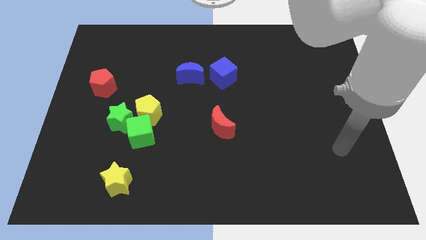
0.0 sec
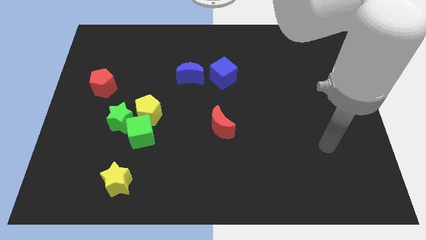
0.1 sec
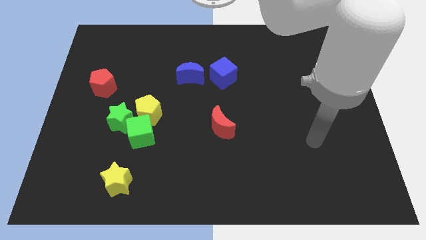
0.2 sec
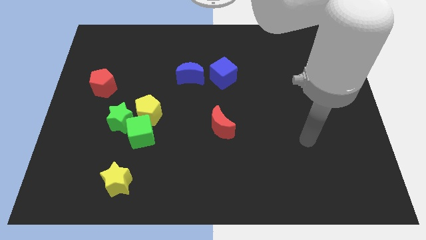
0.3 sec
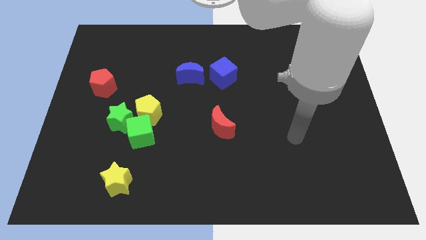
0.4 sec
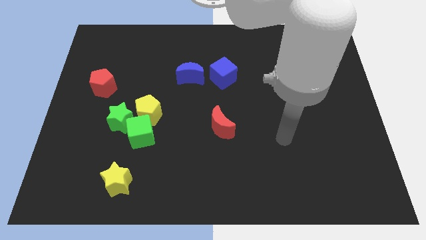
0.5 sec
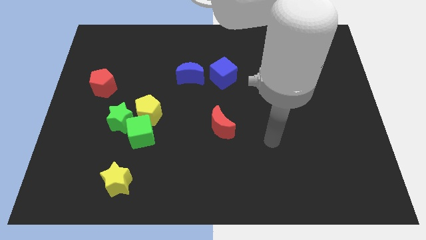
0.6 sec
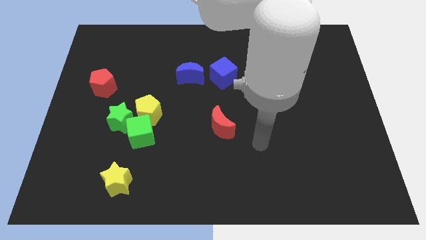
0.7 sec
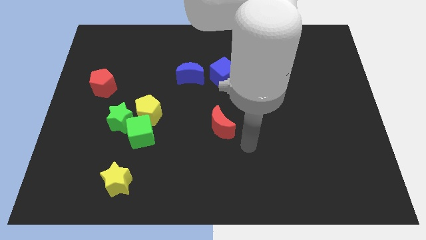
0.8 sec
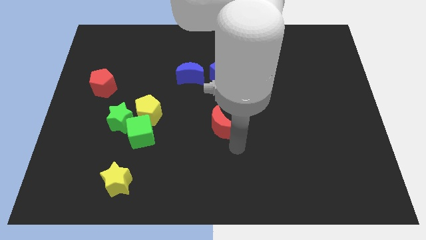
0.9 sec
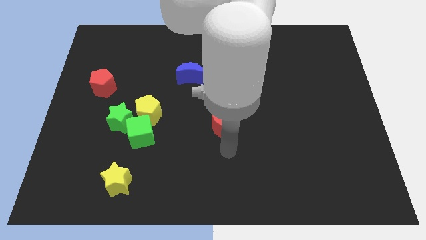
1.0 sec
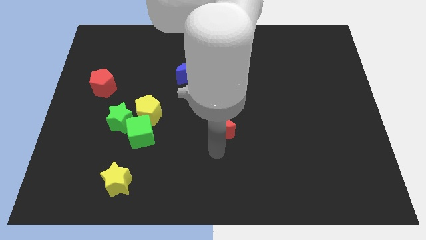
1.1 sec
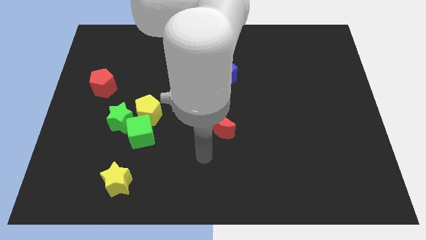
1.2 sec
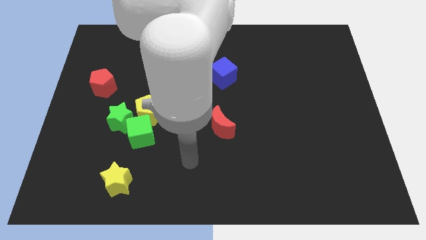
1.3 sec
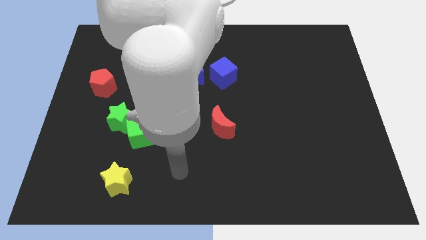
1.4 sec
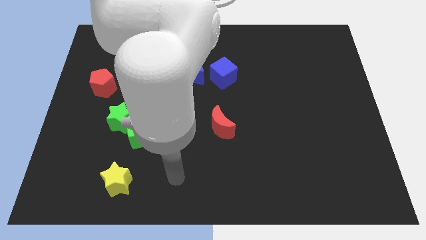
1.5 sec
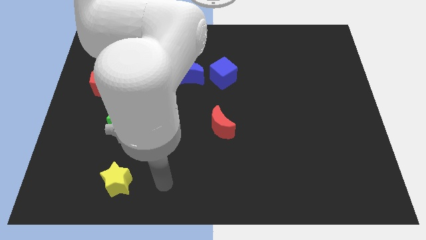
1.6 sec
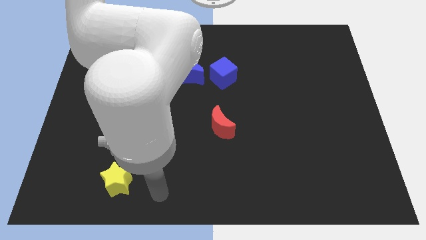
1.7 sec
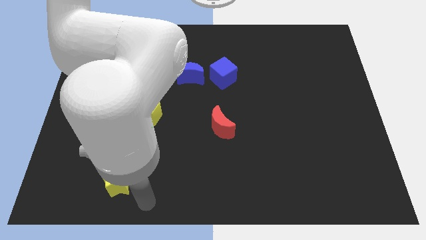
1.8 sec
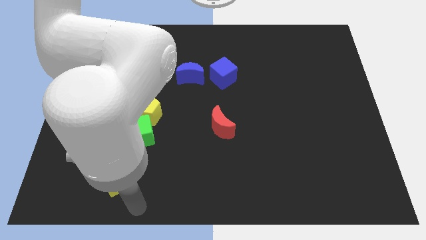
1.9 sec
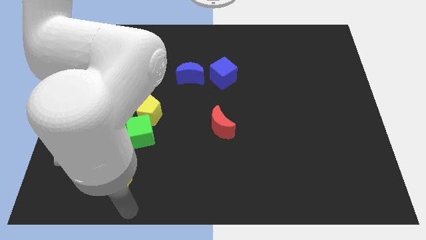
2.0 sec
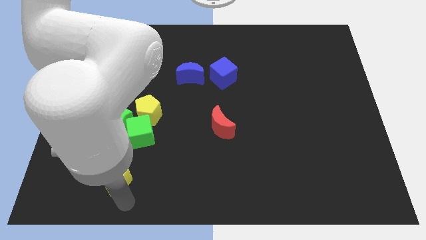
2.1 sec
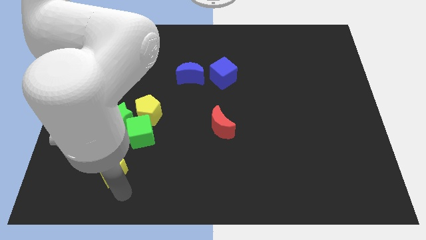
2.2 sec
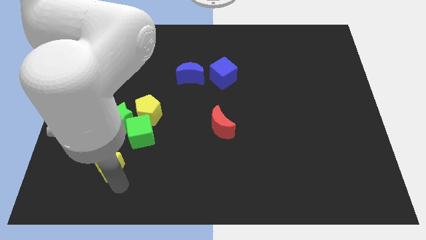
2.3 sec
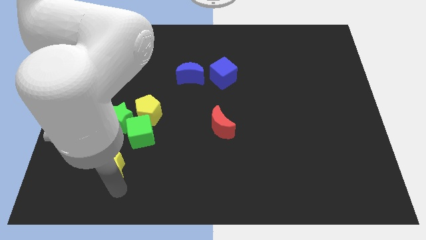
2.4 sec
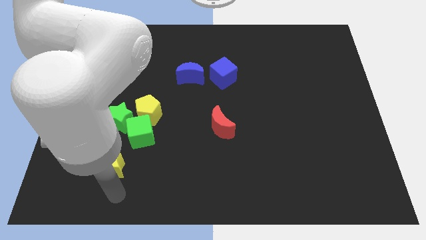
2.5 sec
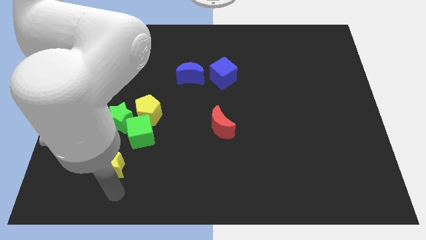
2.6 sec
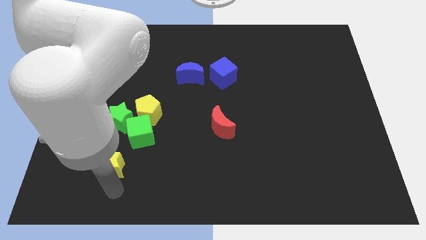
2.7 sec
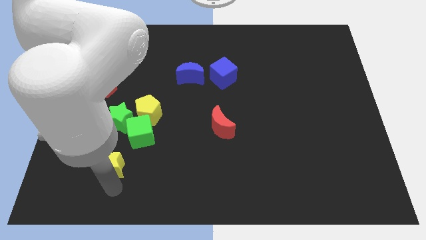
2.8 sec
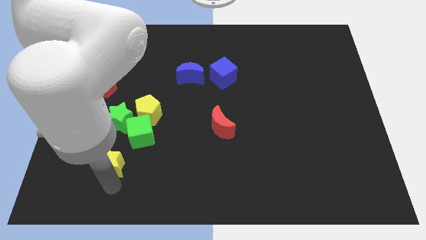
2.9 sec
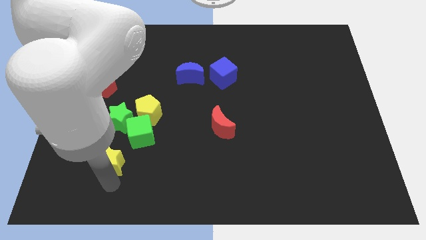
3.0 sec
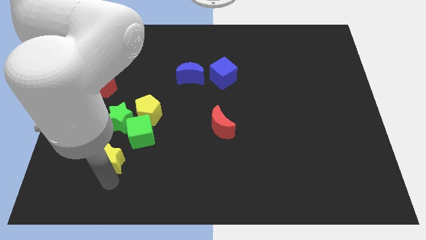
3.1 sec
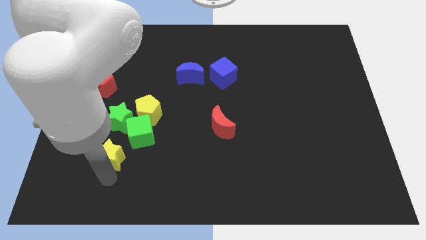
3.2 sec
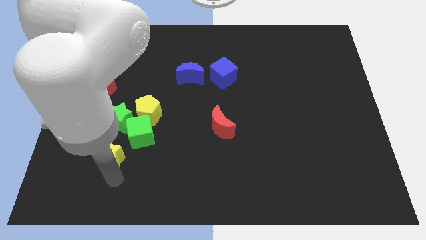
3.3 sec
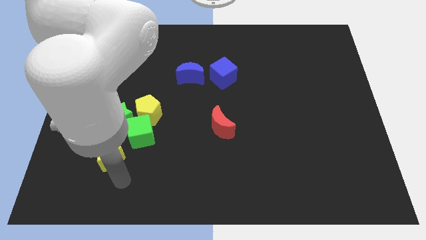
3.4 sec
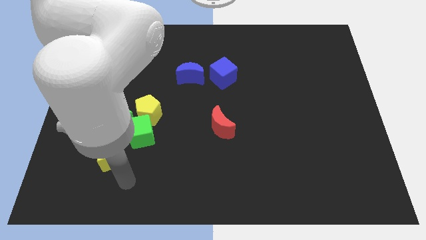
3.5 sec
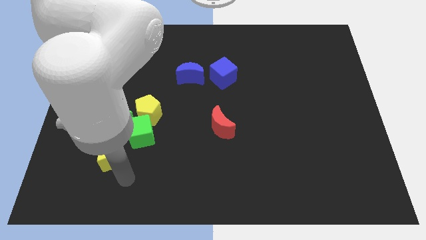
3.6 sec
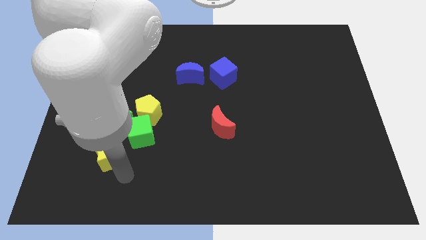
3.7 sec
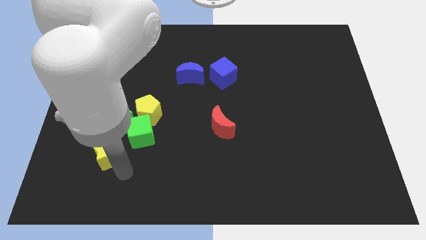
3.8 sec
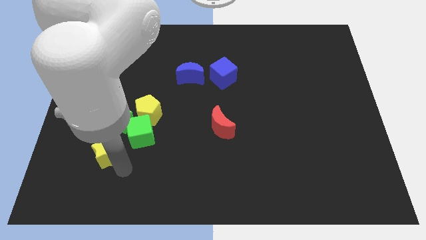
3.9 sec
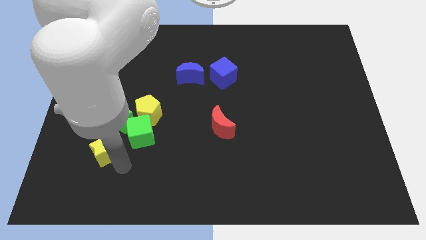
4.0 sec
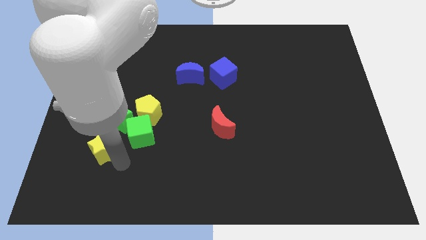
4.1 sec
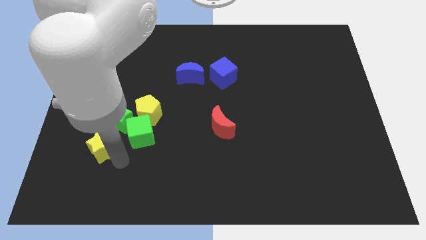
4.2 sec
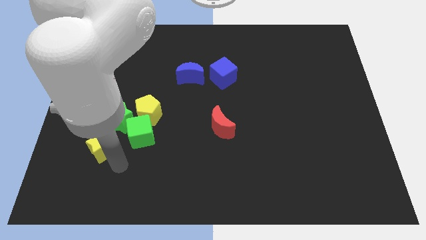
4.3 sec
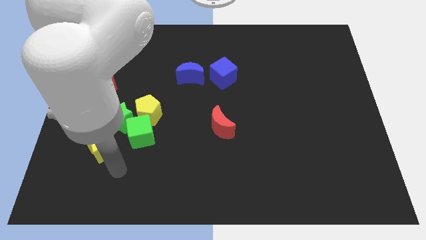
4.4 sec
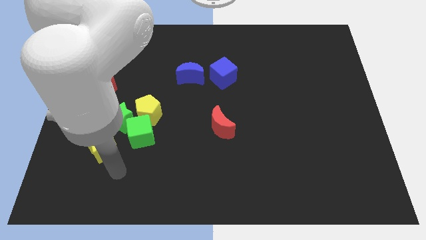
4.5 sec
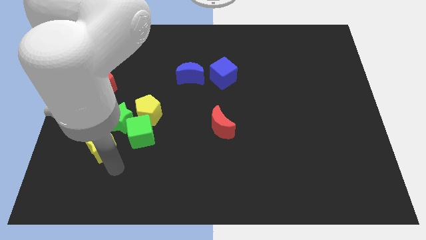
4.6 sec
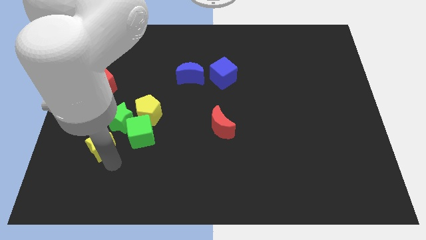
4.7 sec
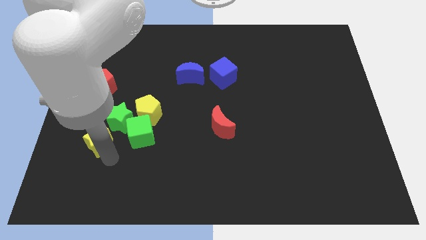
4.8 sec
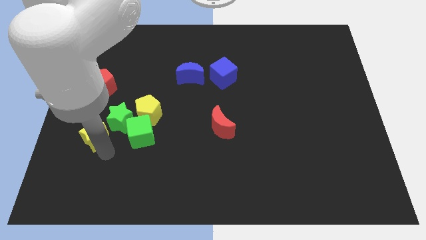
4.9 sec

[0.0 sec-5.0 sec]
move the yellow star below the red pentagon

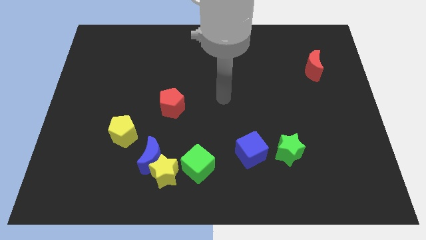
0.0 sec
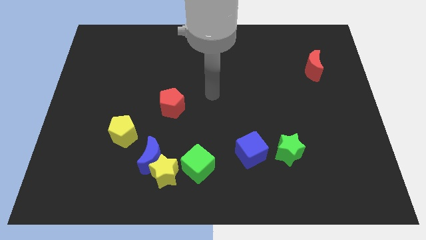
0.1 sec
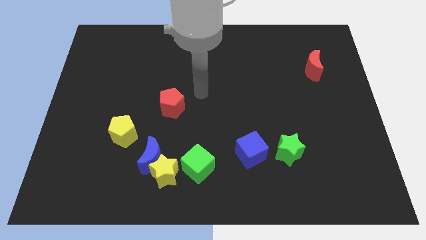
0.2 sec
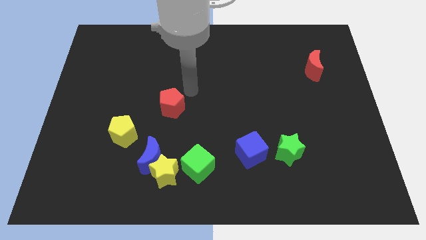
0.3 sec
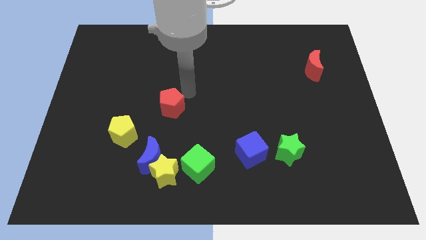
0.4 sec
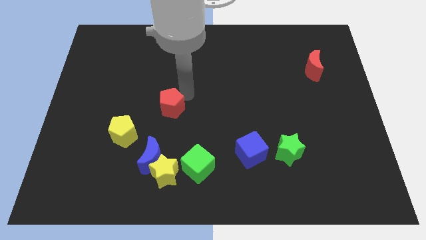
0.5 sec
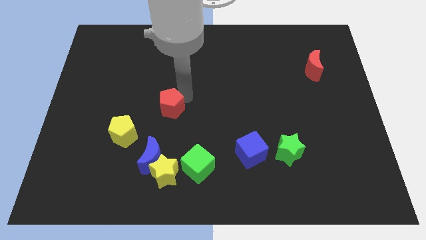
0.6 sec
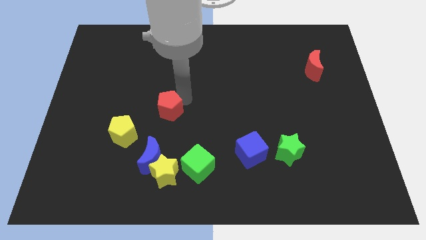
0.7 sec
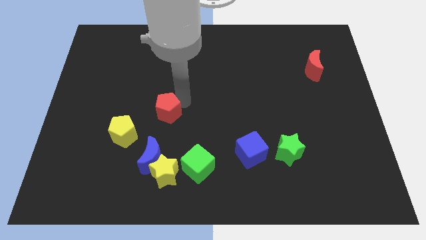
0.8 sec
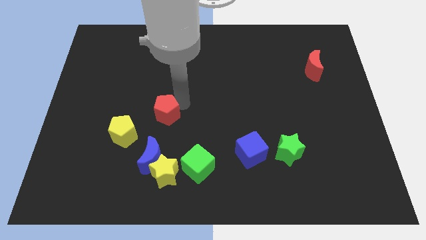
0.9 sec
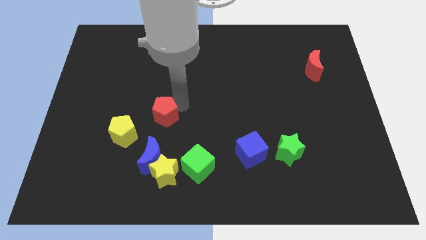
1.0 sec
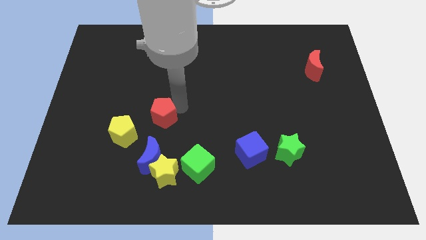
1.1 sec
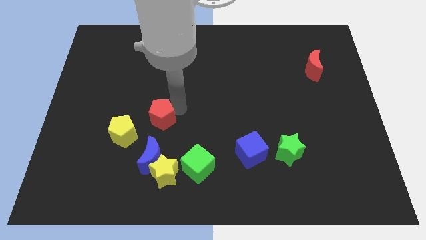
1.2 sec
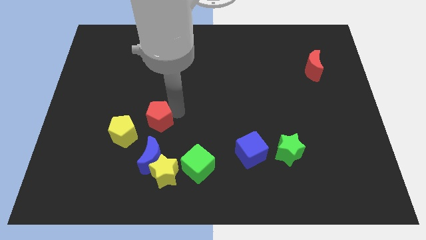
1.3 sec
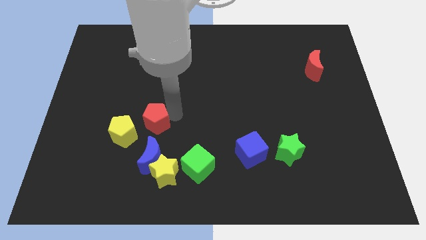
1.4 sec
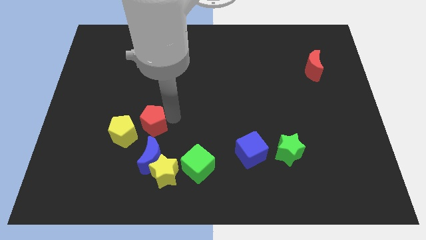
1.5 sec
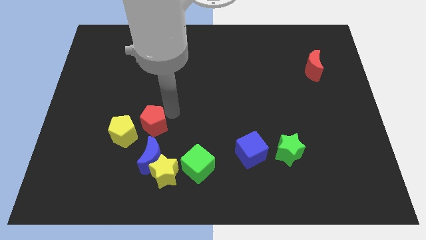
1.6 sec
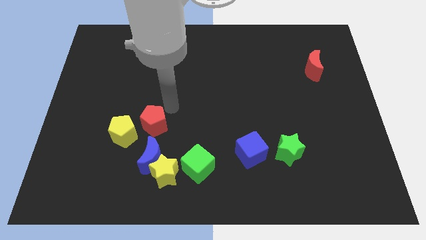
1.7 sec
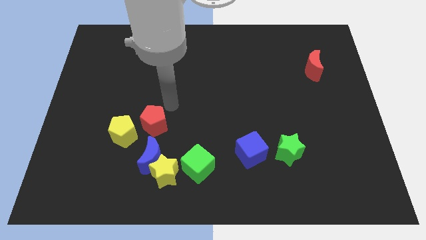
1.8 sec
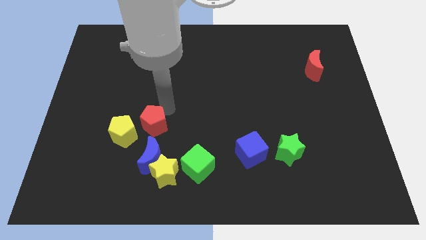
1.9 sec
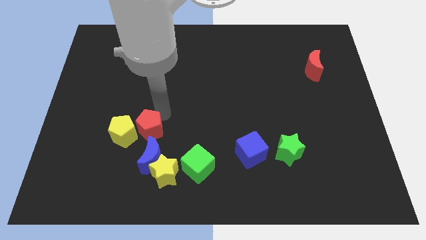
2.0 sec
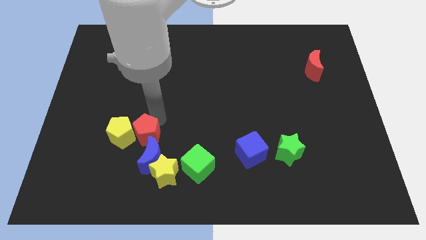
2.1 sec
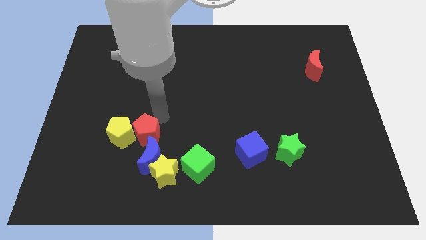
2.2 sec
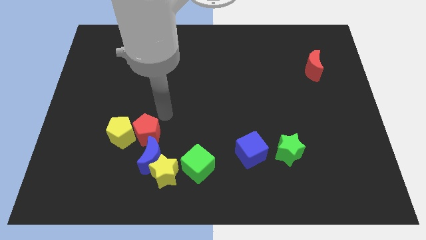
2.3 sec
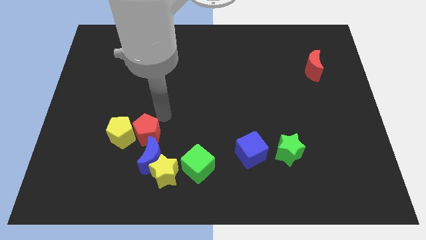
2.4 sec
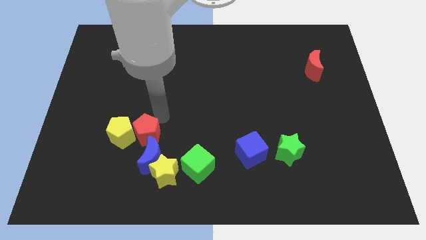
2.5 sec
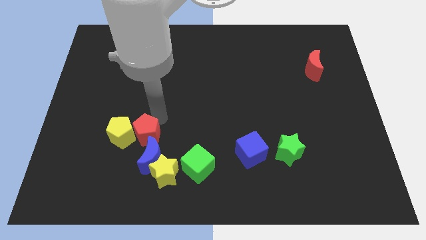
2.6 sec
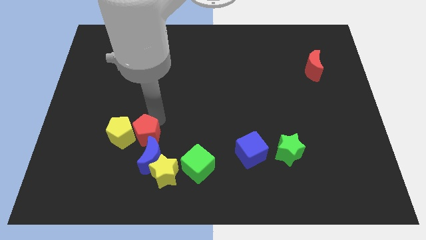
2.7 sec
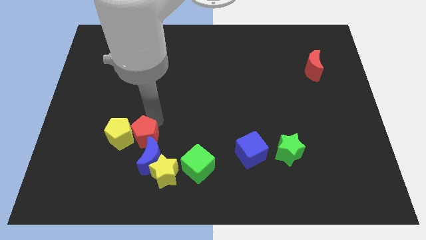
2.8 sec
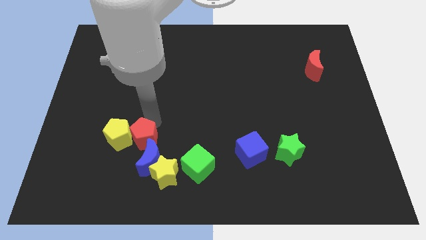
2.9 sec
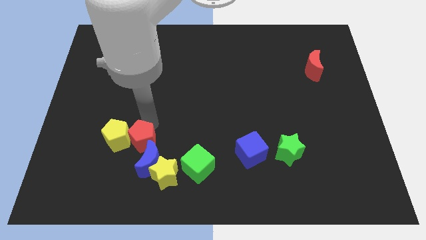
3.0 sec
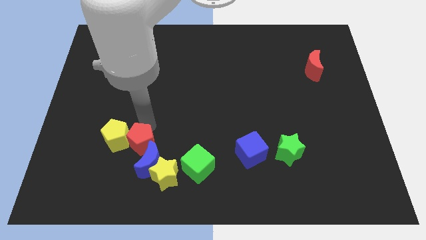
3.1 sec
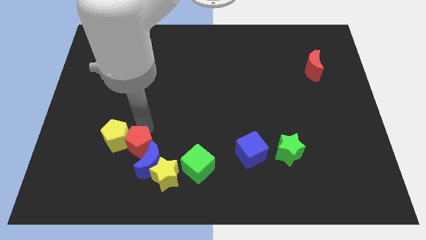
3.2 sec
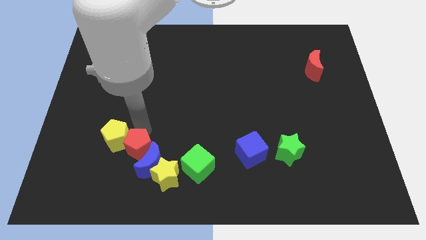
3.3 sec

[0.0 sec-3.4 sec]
move the red pentagon just left of the green cube
